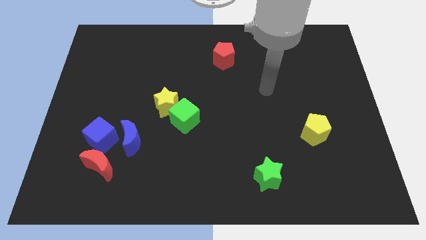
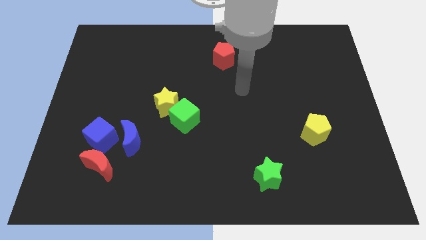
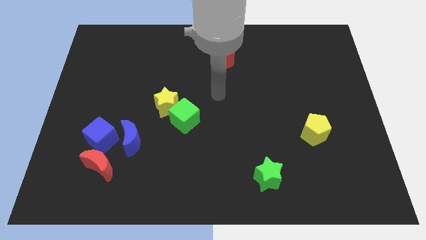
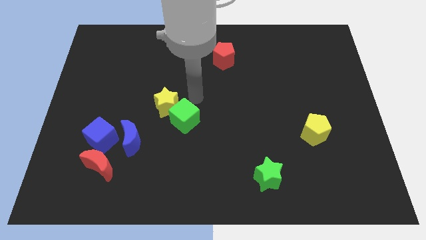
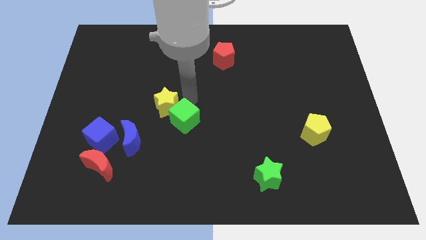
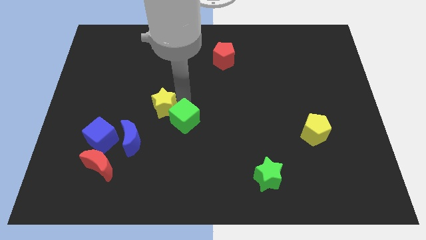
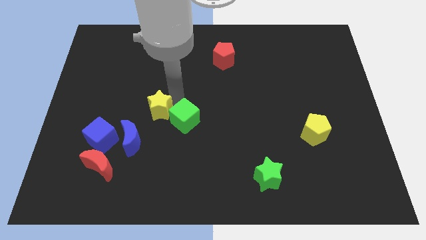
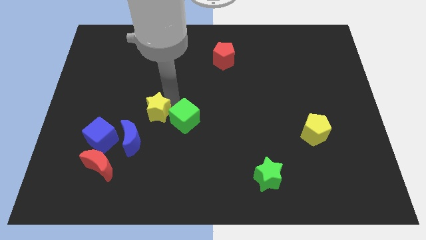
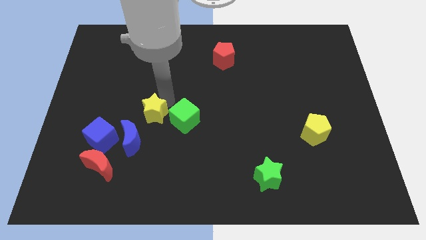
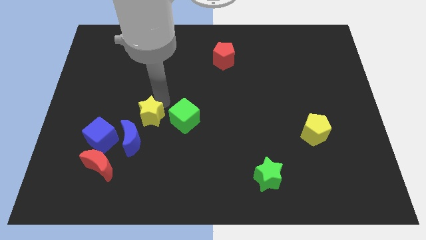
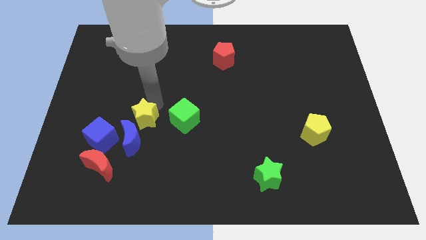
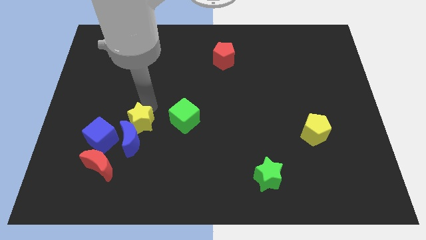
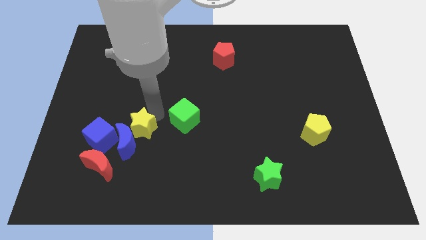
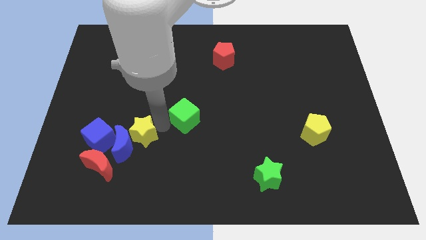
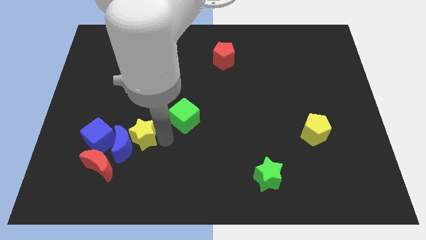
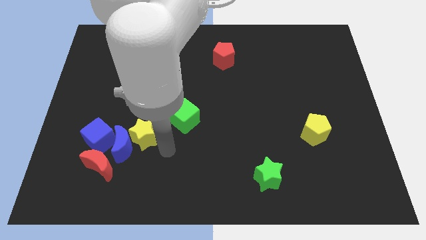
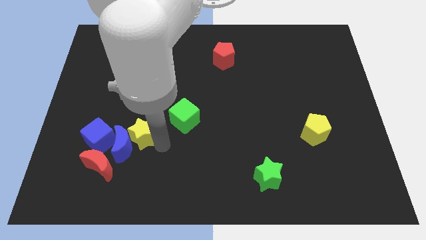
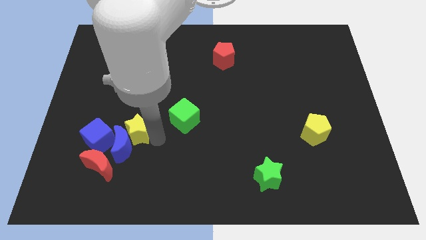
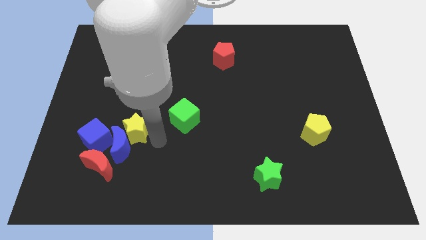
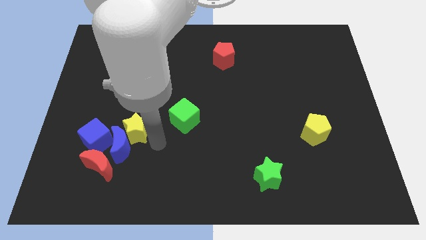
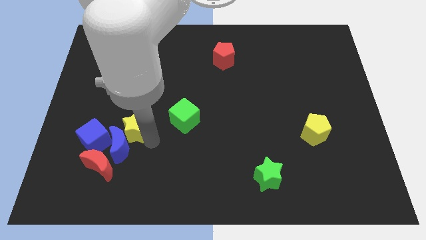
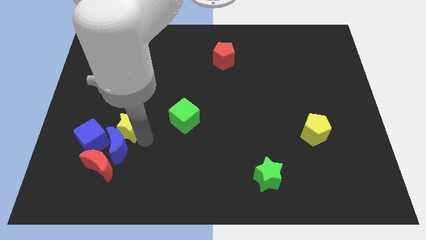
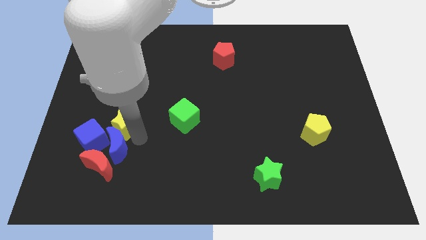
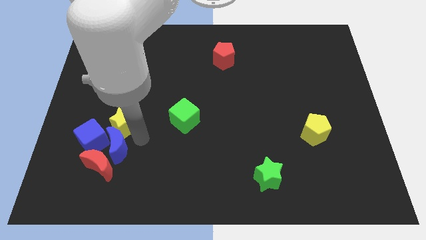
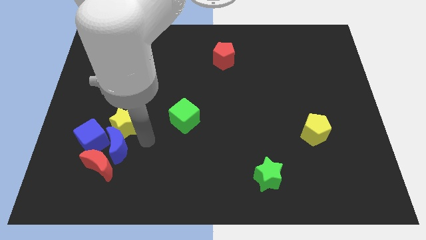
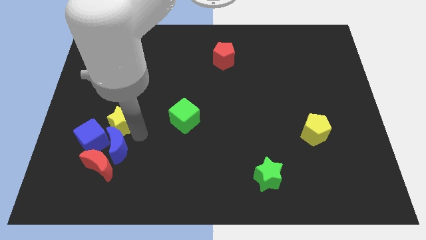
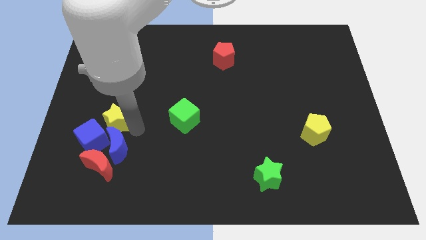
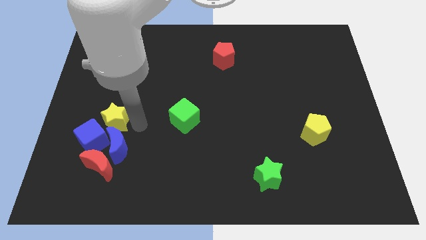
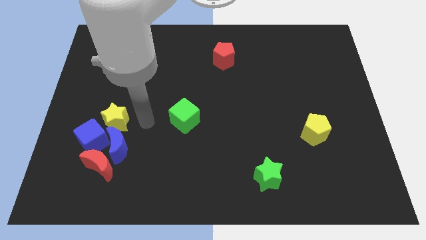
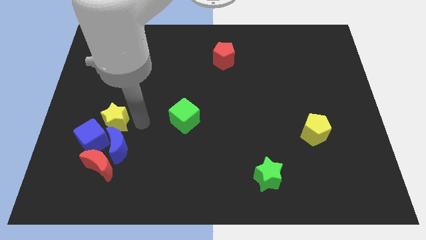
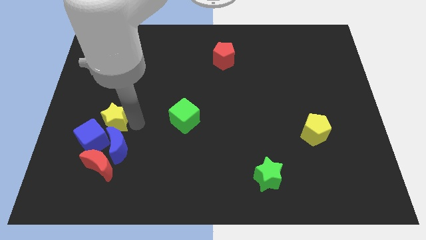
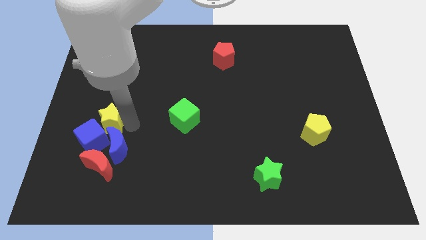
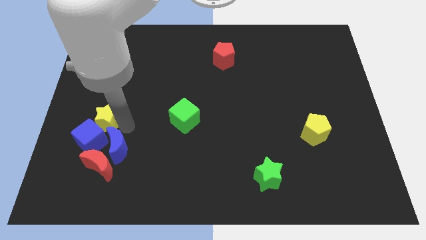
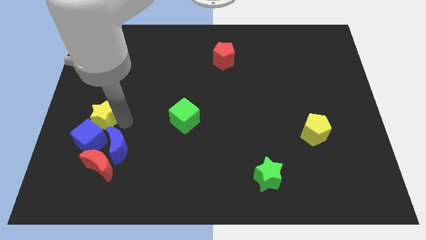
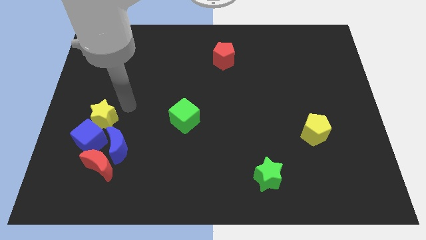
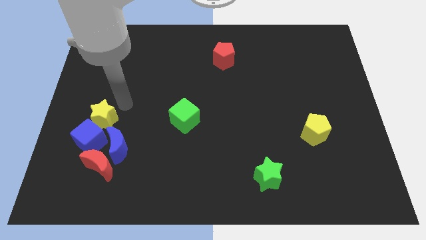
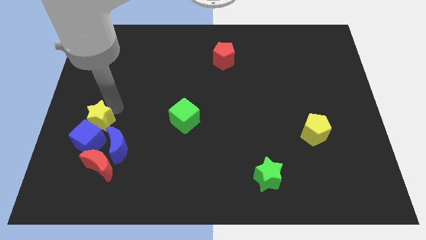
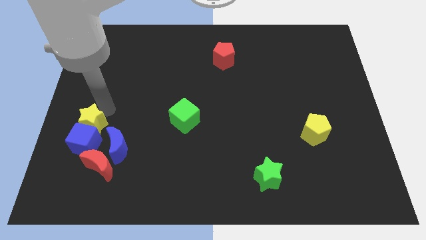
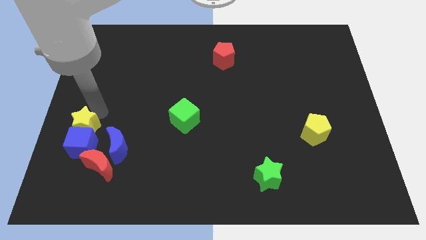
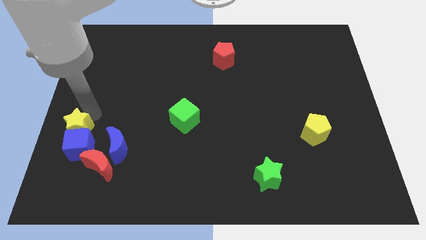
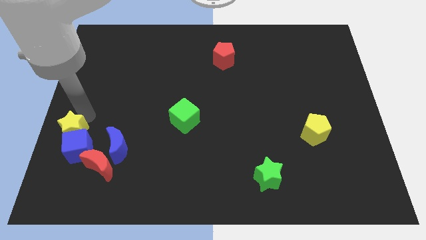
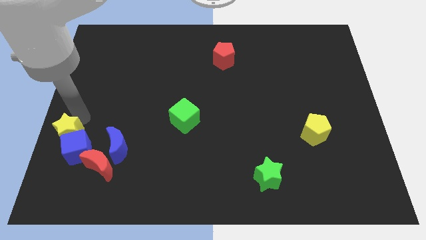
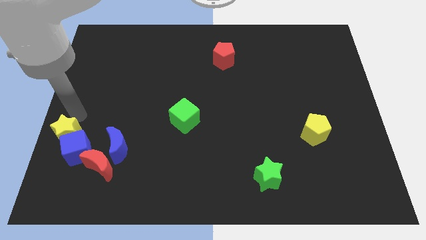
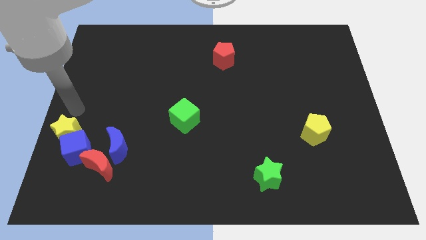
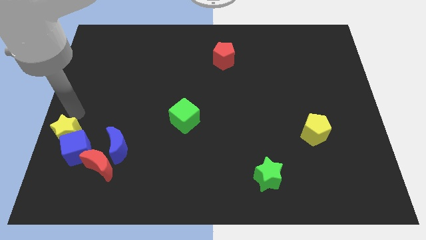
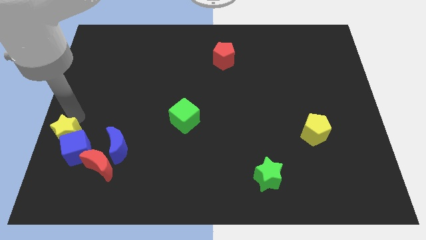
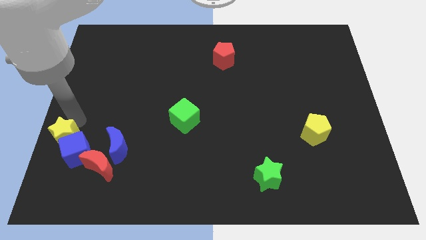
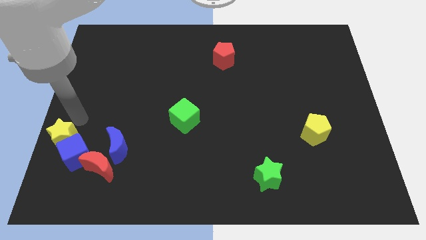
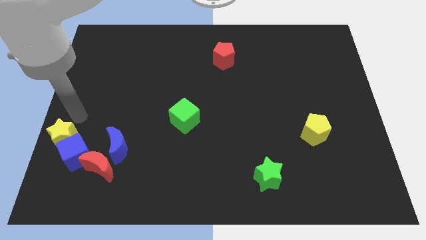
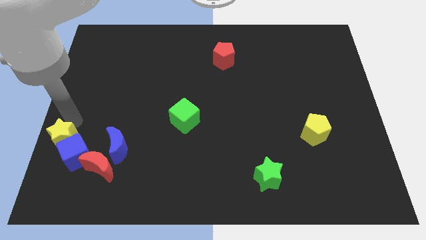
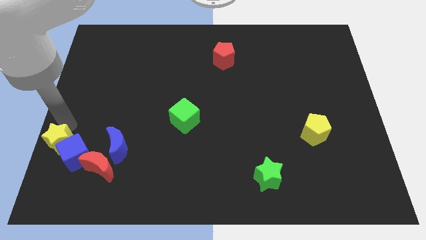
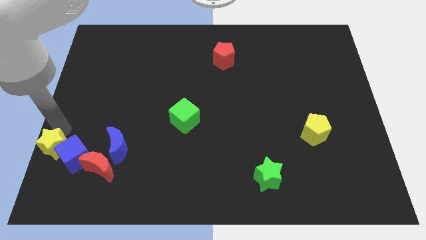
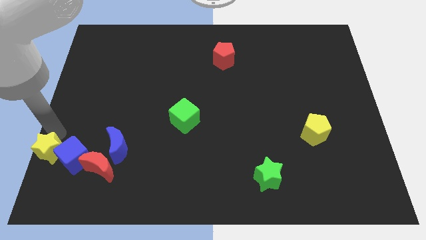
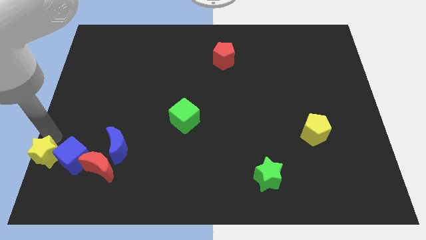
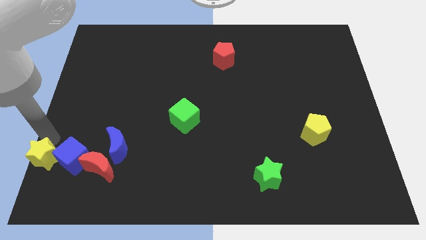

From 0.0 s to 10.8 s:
push the yellow star to the bottom left
